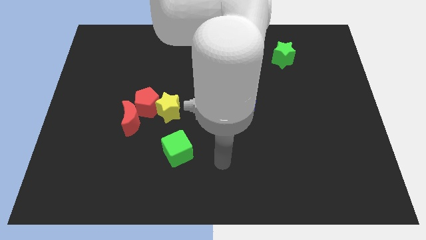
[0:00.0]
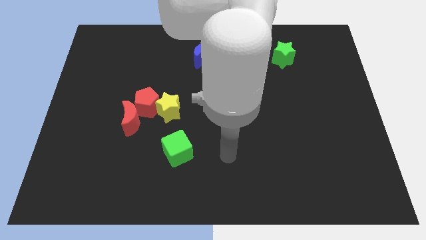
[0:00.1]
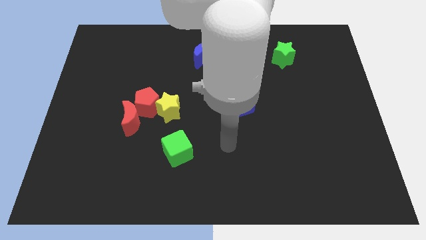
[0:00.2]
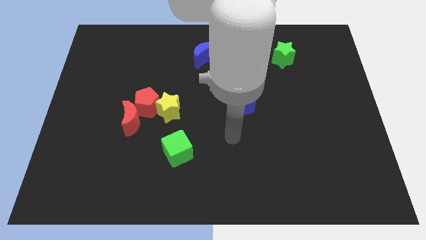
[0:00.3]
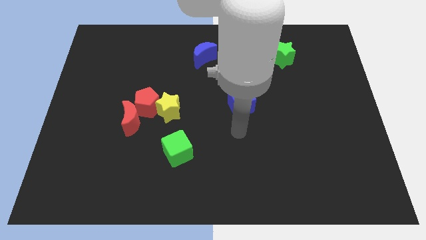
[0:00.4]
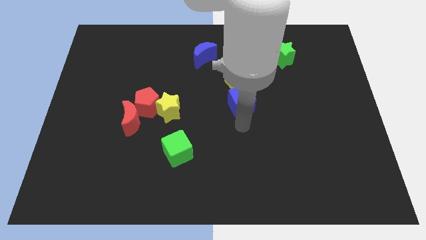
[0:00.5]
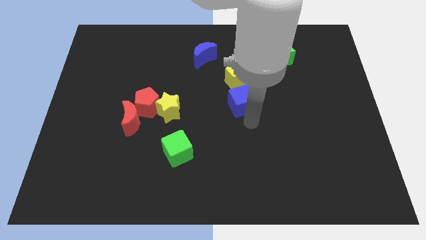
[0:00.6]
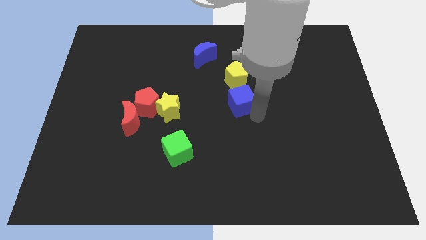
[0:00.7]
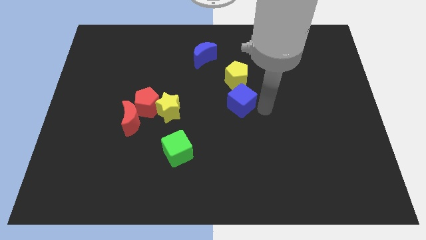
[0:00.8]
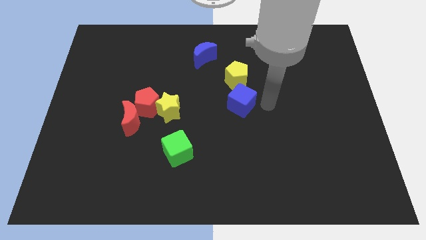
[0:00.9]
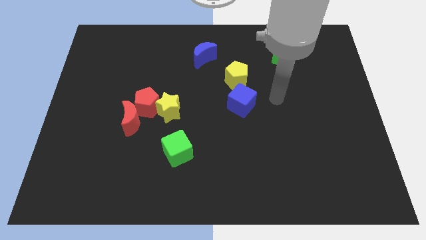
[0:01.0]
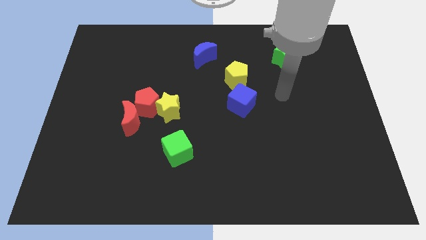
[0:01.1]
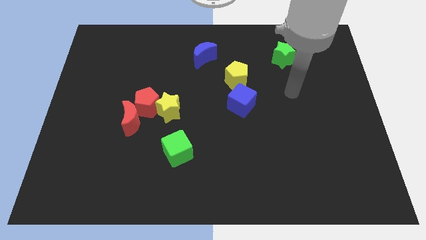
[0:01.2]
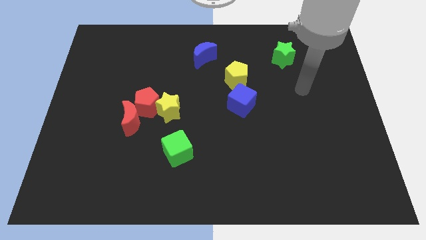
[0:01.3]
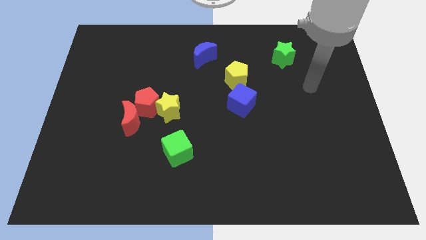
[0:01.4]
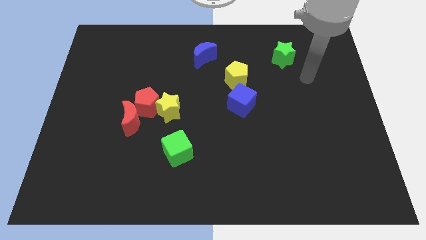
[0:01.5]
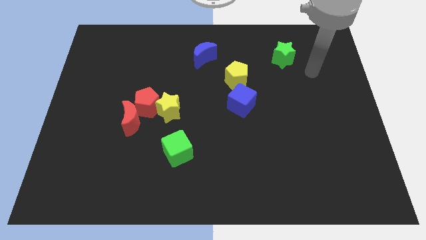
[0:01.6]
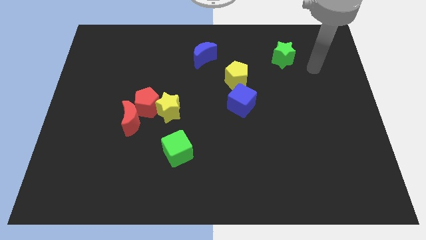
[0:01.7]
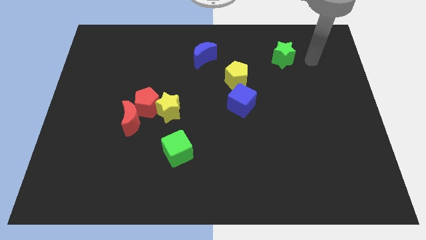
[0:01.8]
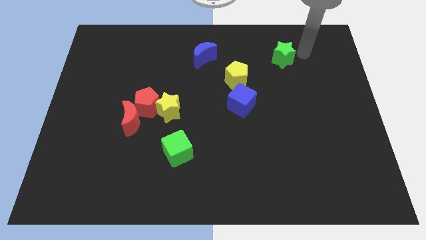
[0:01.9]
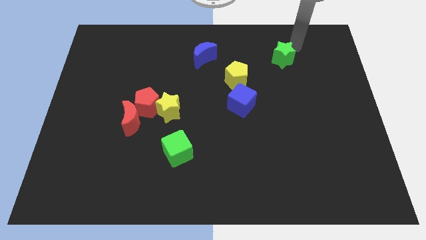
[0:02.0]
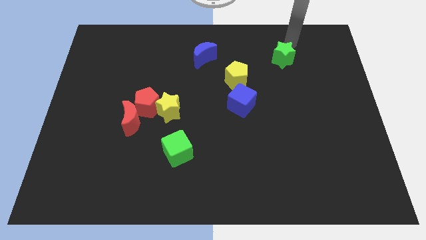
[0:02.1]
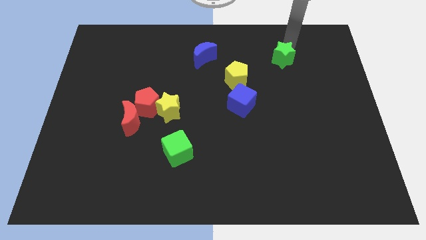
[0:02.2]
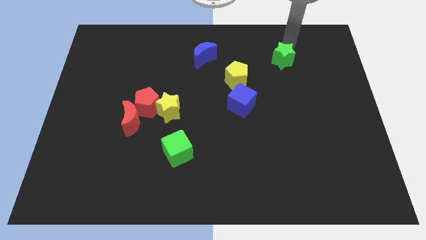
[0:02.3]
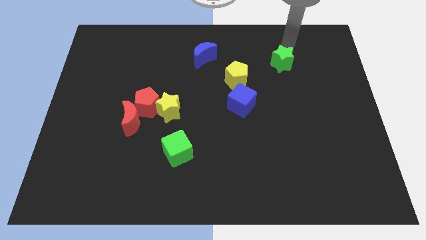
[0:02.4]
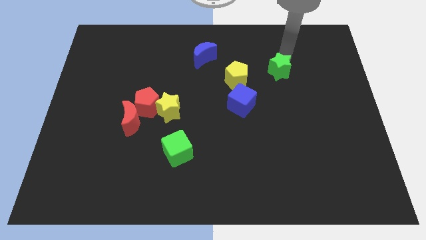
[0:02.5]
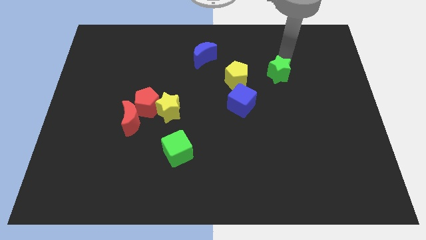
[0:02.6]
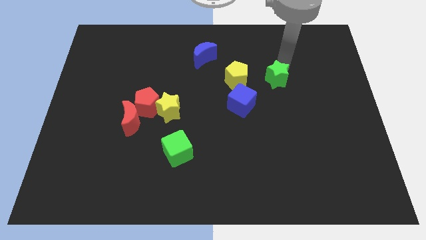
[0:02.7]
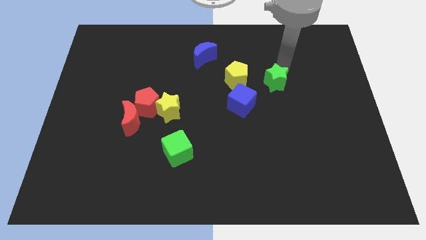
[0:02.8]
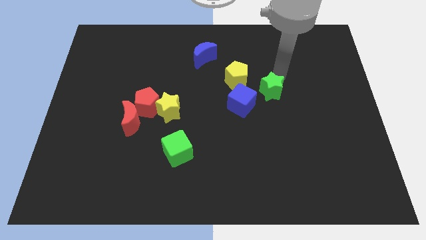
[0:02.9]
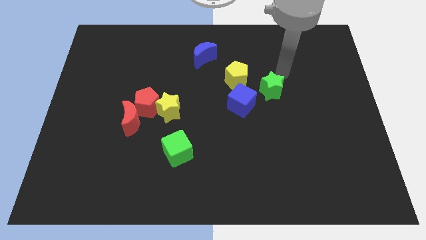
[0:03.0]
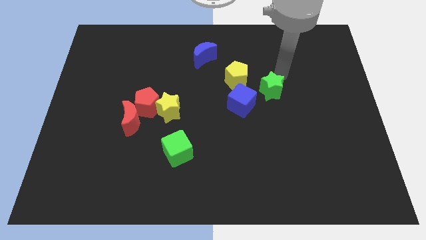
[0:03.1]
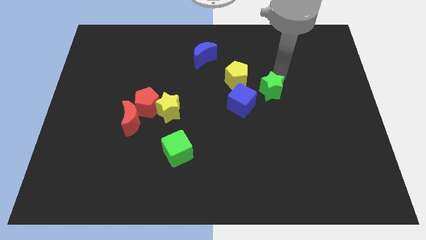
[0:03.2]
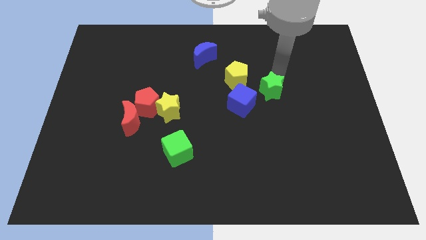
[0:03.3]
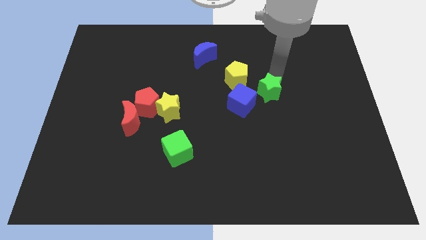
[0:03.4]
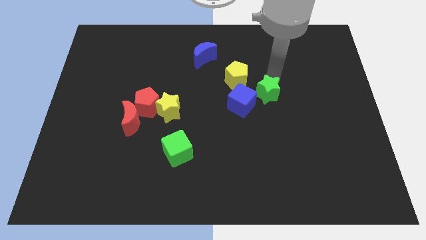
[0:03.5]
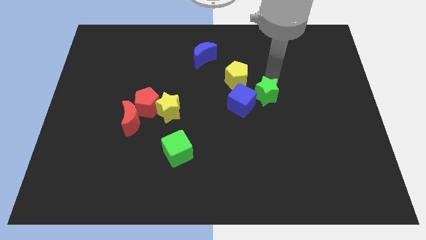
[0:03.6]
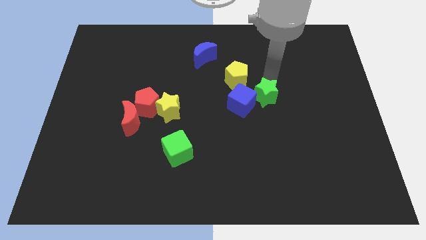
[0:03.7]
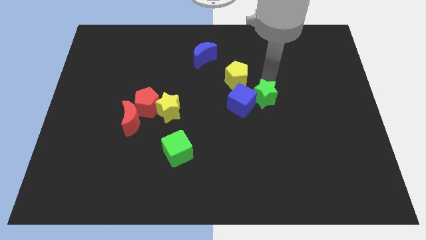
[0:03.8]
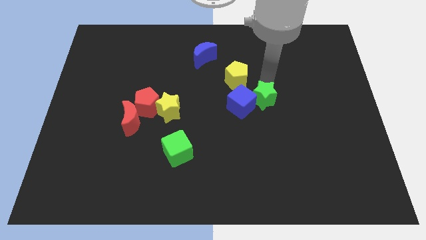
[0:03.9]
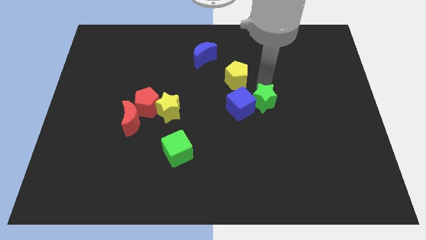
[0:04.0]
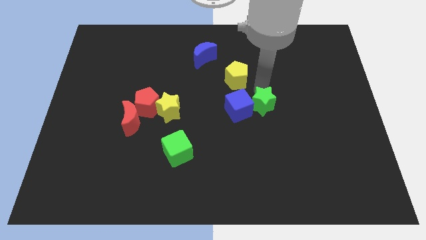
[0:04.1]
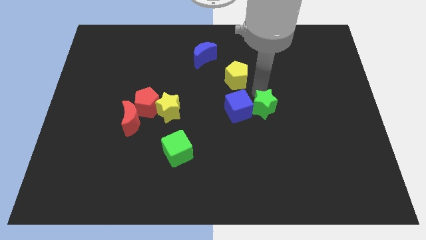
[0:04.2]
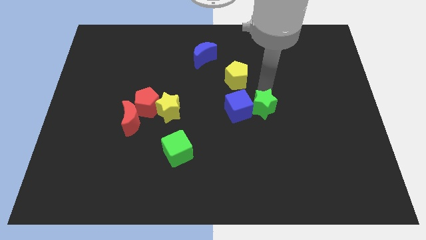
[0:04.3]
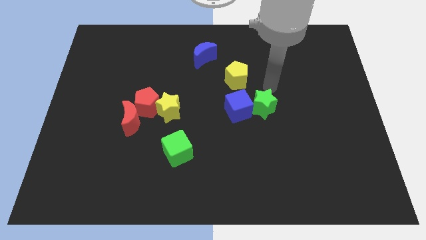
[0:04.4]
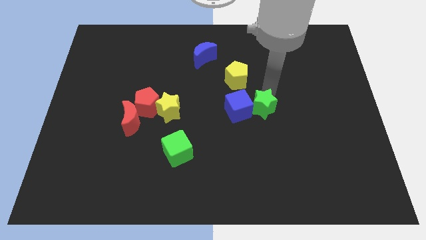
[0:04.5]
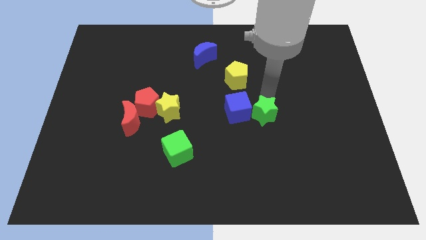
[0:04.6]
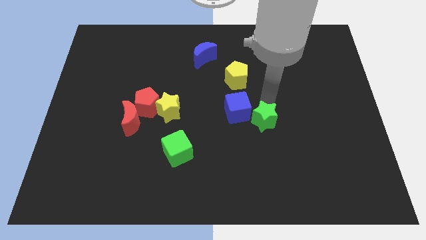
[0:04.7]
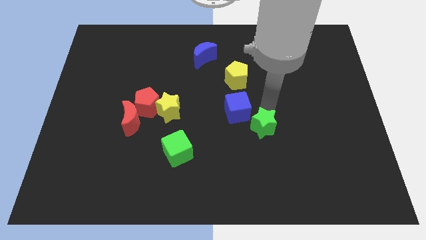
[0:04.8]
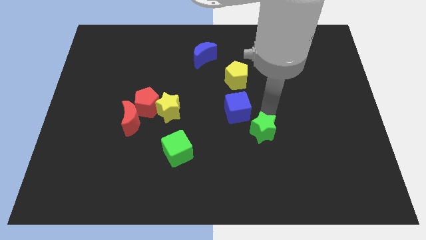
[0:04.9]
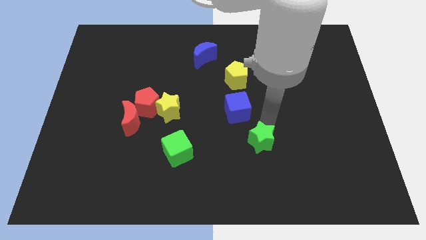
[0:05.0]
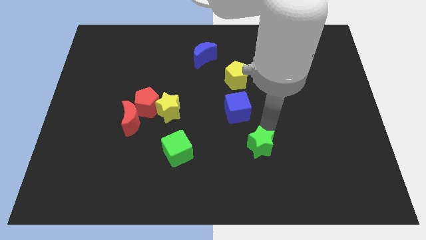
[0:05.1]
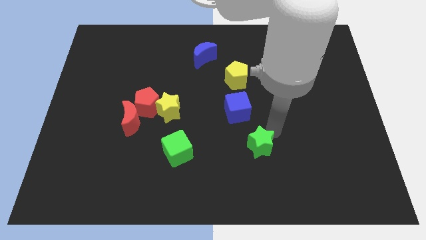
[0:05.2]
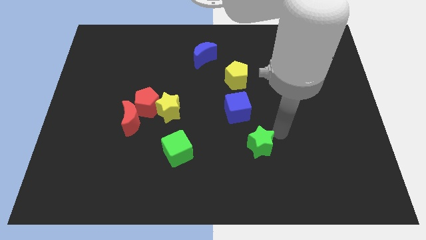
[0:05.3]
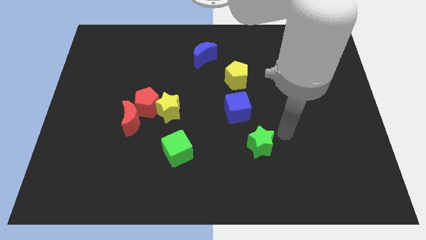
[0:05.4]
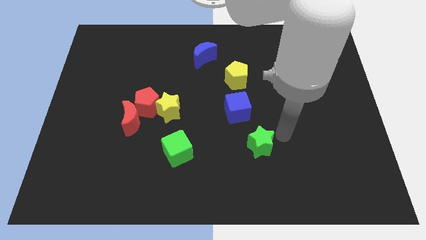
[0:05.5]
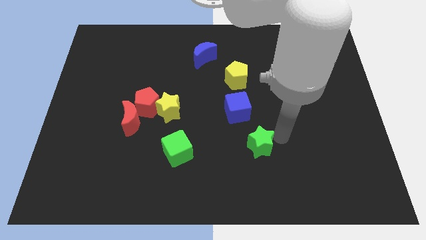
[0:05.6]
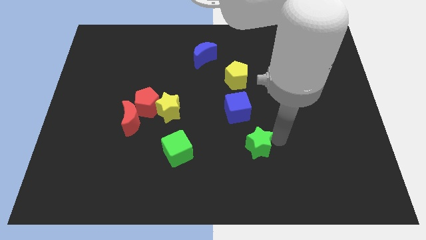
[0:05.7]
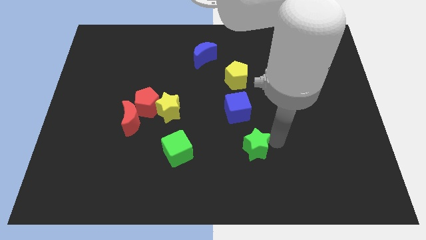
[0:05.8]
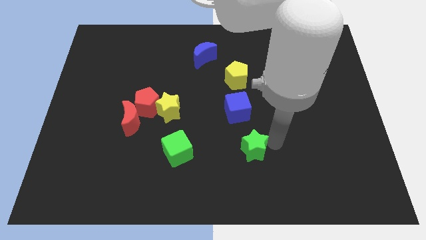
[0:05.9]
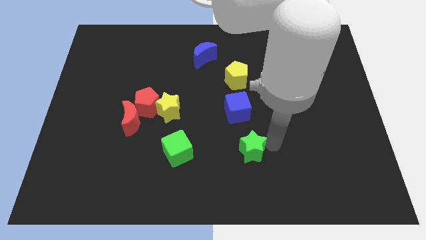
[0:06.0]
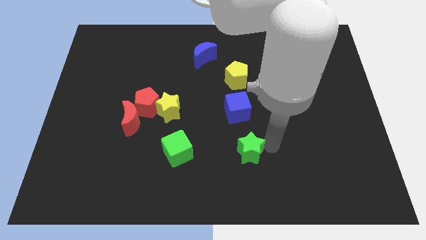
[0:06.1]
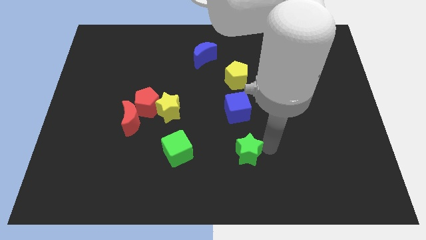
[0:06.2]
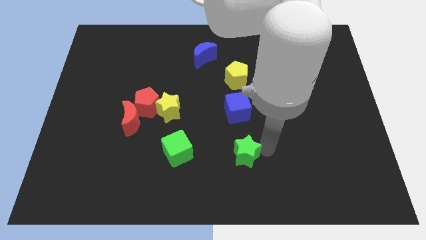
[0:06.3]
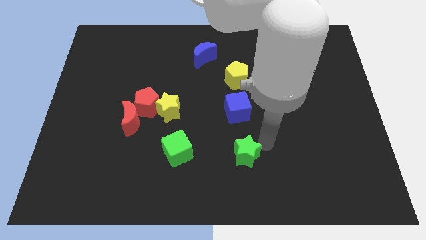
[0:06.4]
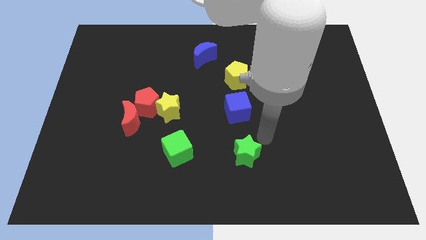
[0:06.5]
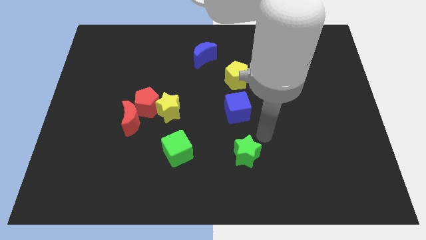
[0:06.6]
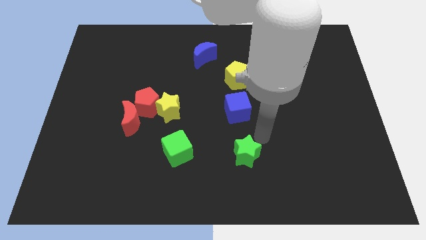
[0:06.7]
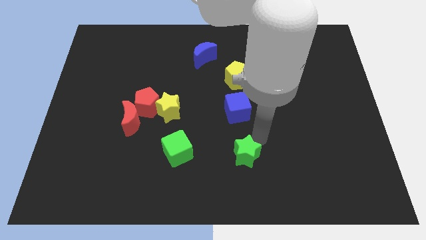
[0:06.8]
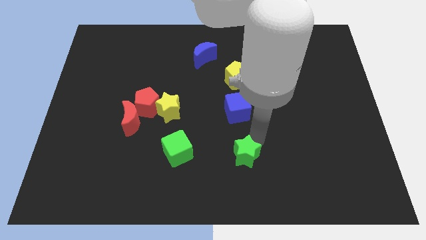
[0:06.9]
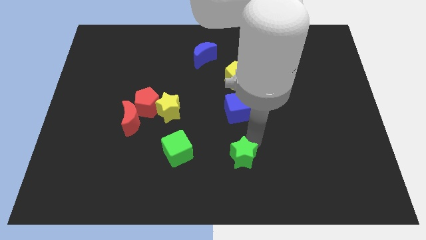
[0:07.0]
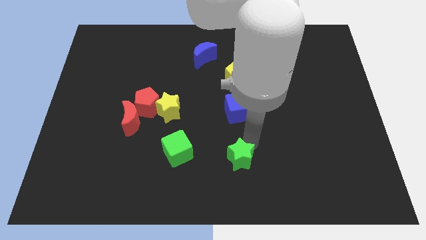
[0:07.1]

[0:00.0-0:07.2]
push the green star to the bottom side
